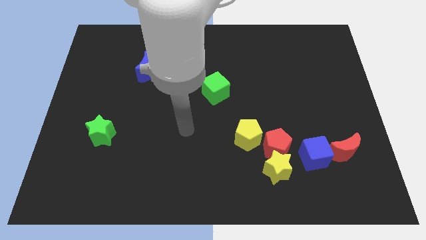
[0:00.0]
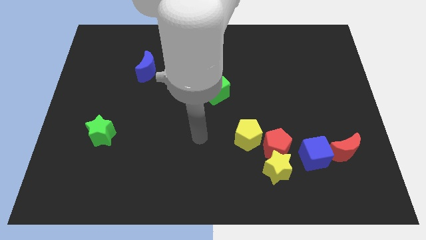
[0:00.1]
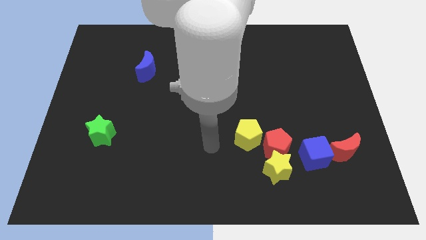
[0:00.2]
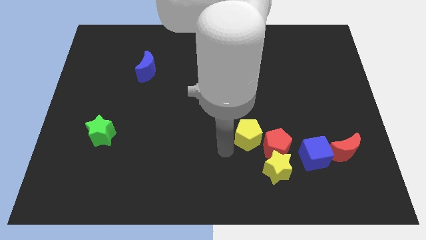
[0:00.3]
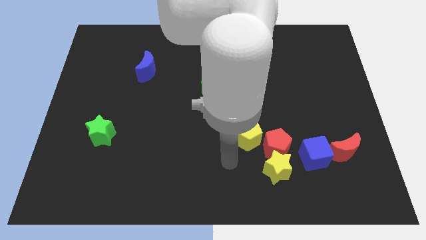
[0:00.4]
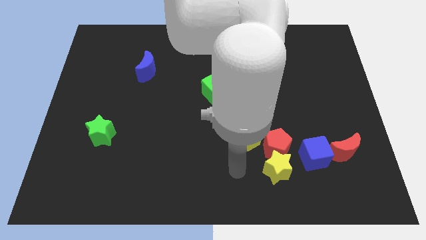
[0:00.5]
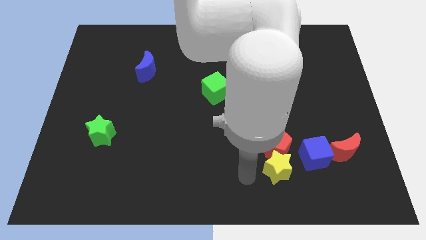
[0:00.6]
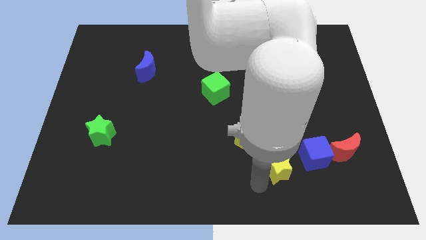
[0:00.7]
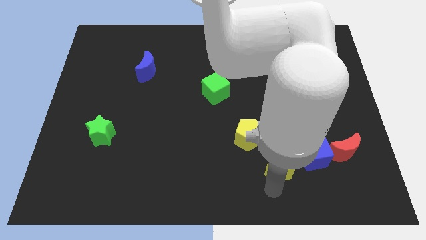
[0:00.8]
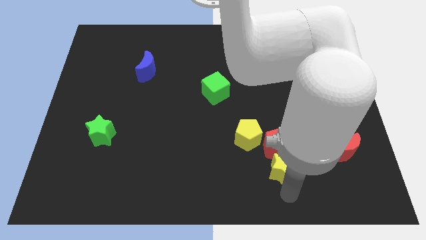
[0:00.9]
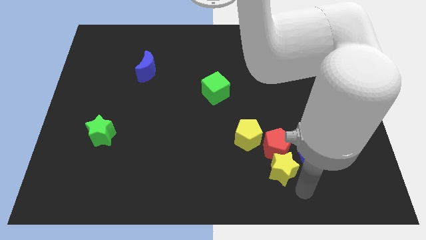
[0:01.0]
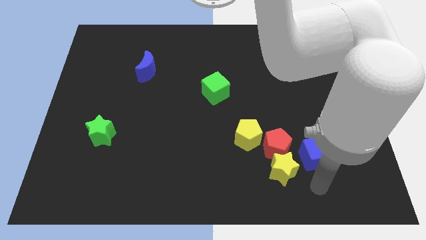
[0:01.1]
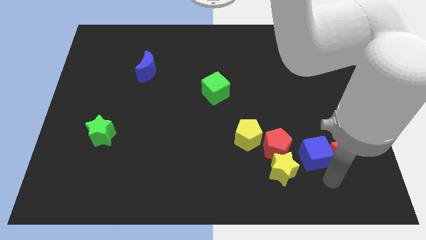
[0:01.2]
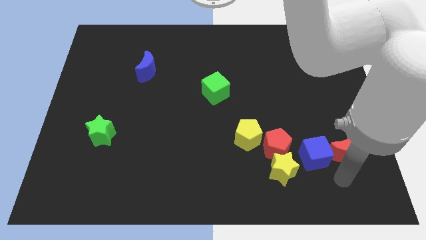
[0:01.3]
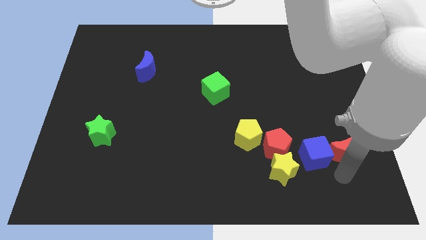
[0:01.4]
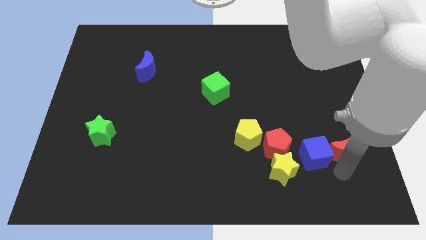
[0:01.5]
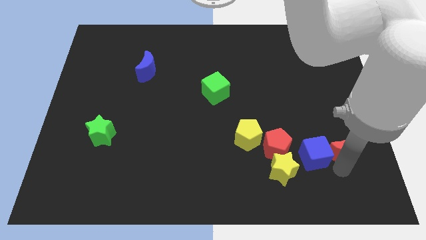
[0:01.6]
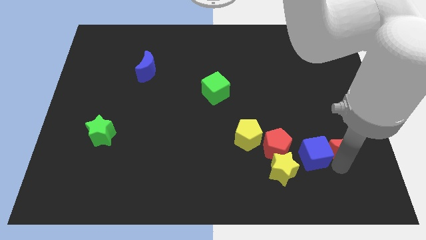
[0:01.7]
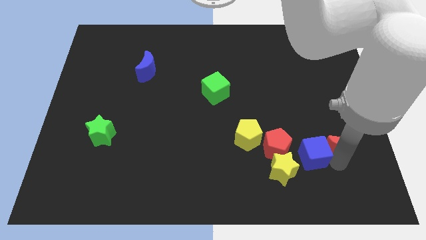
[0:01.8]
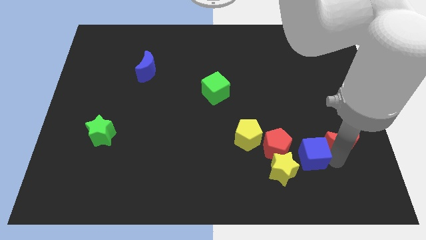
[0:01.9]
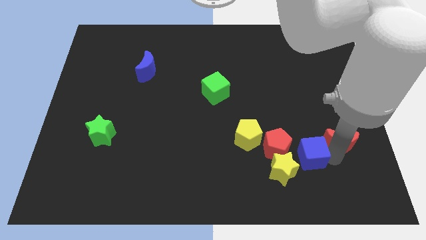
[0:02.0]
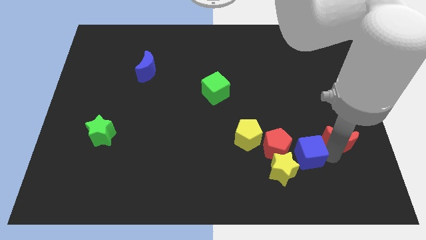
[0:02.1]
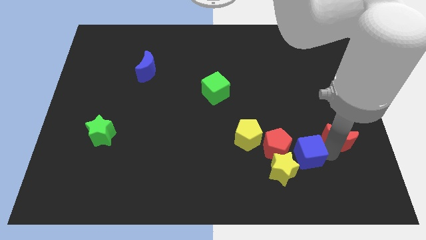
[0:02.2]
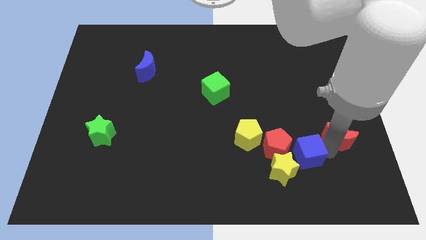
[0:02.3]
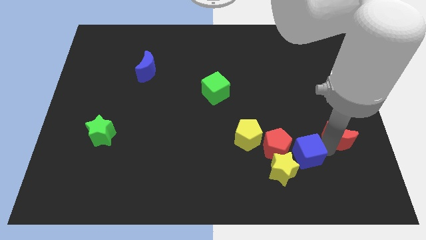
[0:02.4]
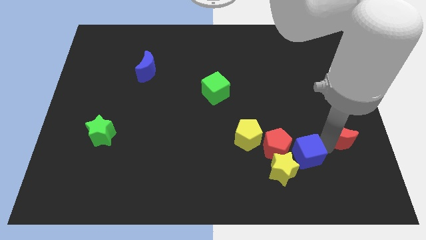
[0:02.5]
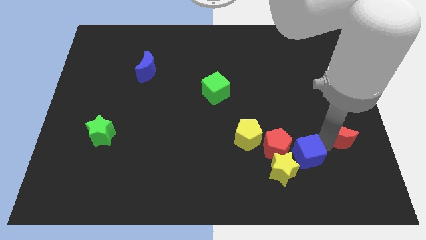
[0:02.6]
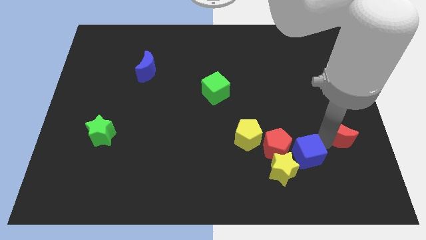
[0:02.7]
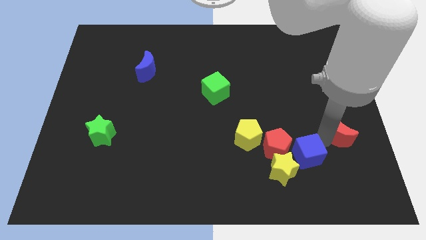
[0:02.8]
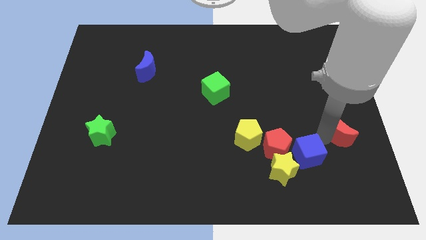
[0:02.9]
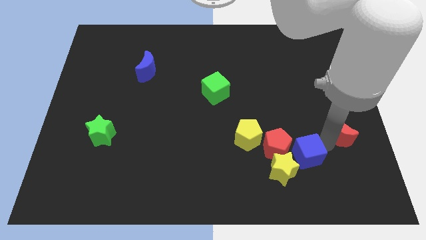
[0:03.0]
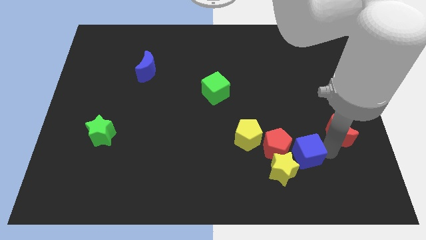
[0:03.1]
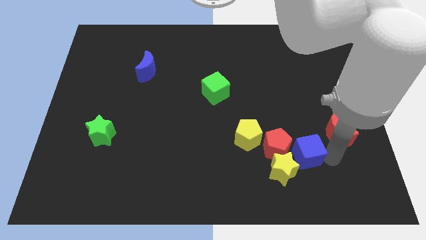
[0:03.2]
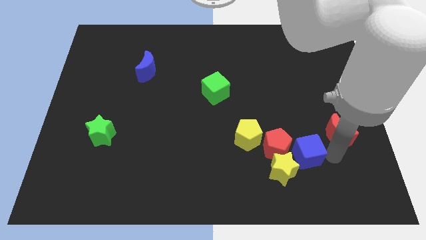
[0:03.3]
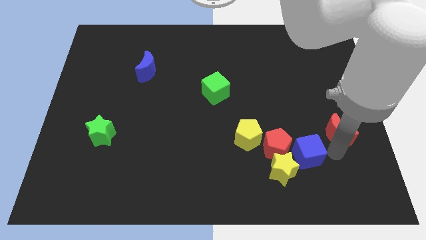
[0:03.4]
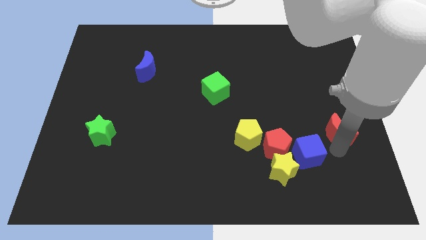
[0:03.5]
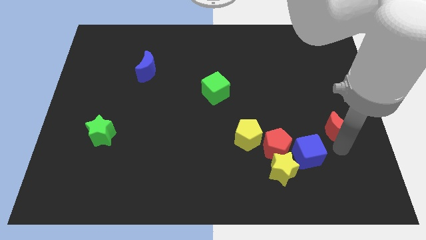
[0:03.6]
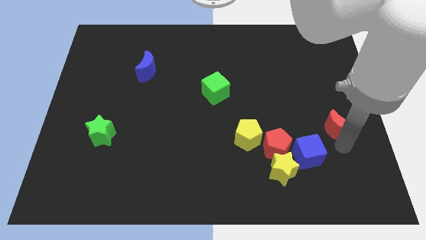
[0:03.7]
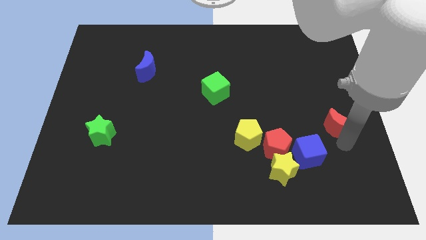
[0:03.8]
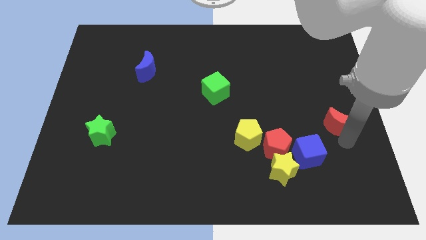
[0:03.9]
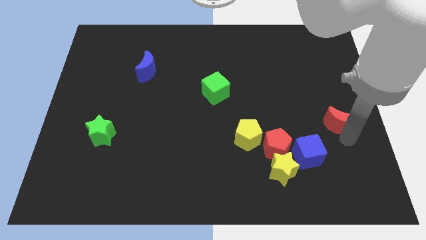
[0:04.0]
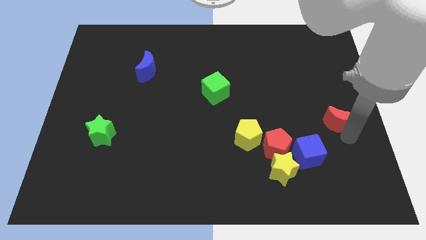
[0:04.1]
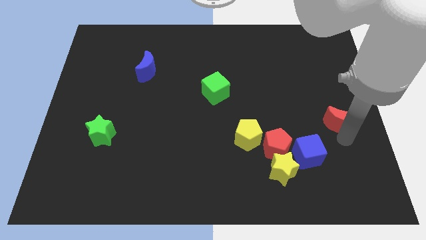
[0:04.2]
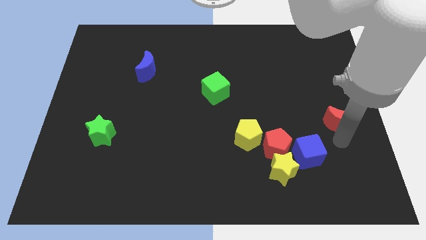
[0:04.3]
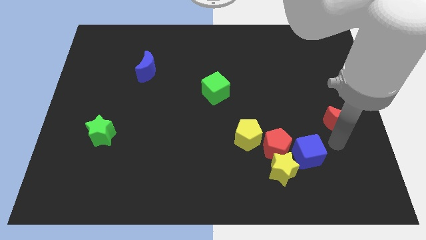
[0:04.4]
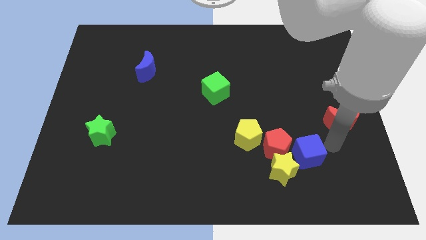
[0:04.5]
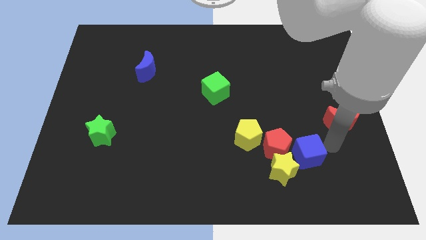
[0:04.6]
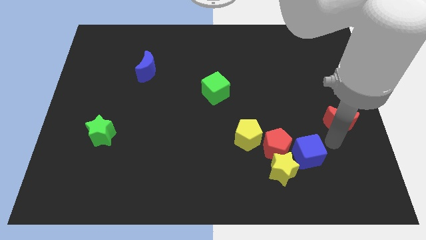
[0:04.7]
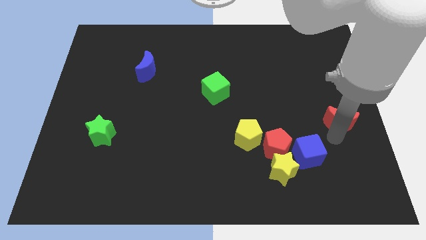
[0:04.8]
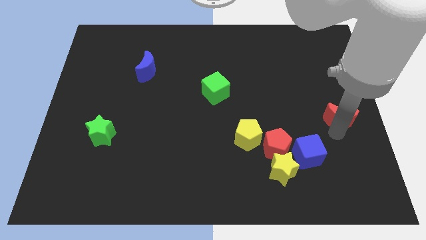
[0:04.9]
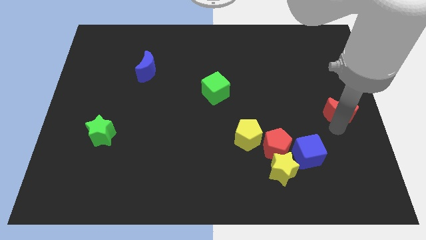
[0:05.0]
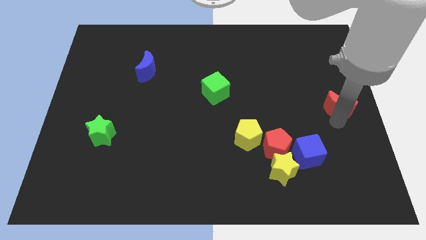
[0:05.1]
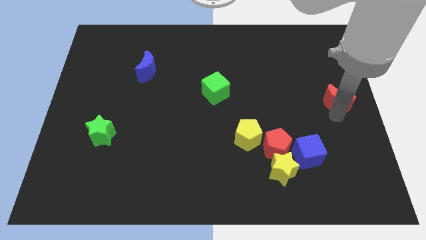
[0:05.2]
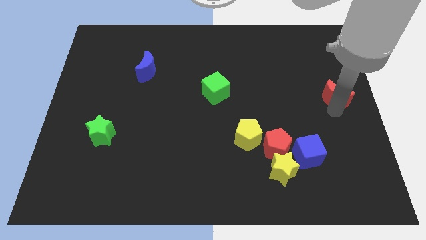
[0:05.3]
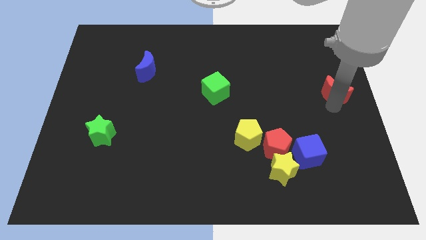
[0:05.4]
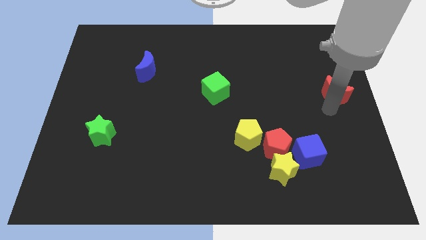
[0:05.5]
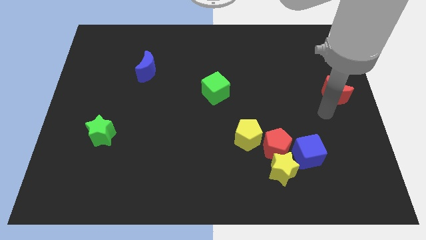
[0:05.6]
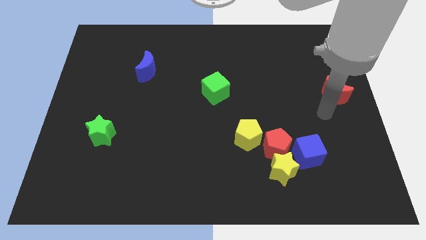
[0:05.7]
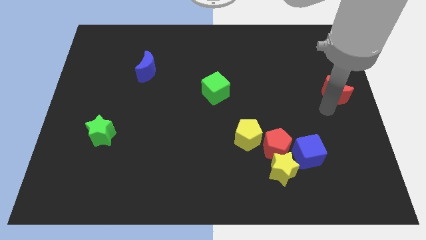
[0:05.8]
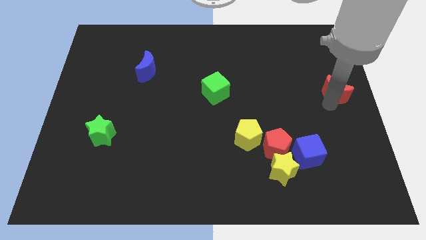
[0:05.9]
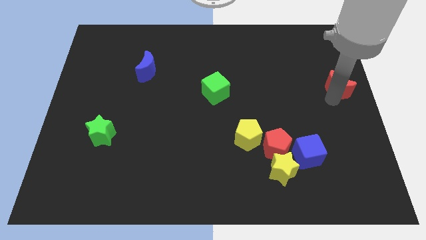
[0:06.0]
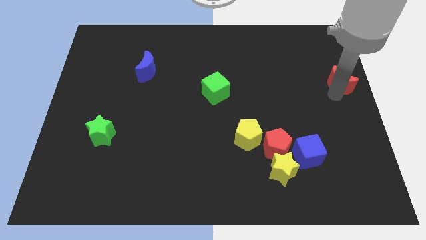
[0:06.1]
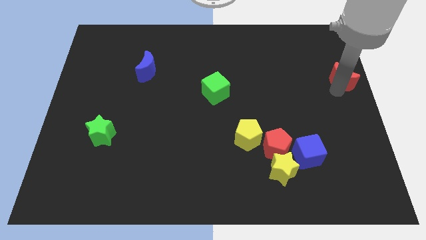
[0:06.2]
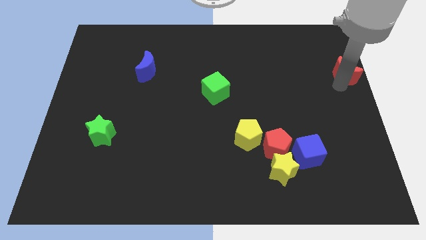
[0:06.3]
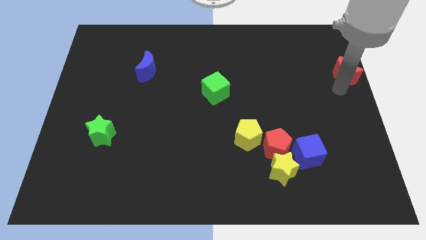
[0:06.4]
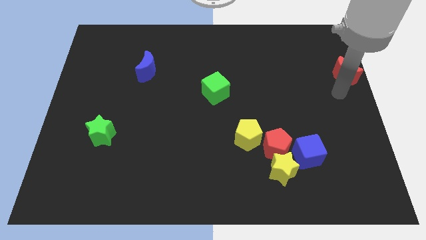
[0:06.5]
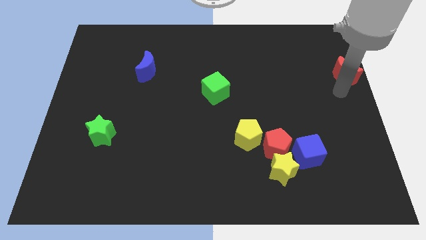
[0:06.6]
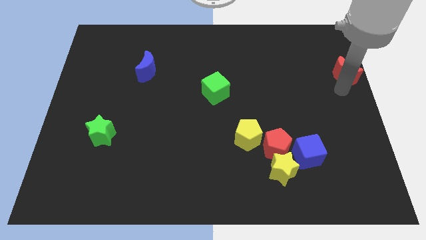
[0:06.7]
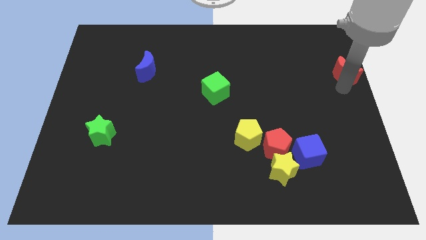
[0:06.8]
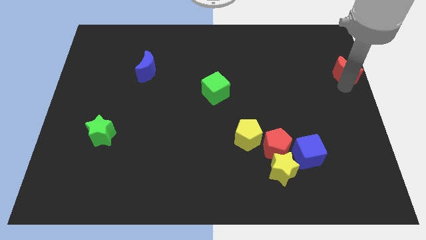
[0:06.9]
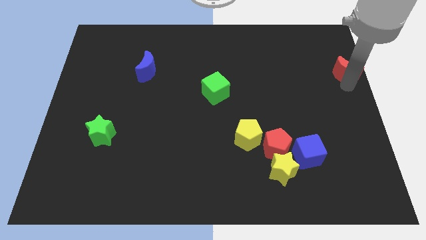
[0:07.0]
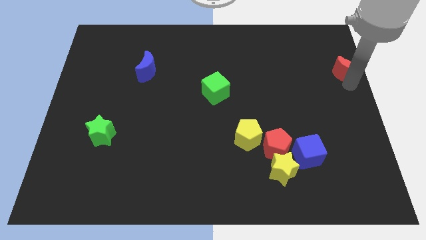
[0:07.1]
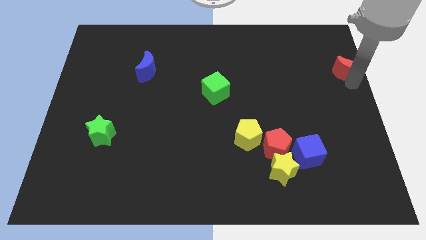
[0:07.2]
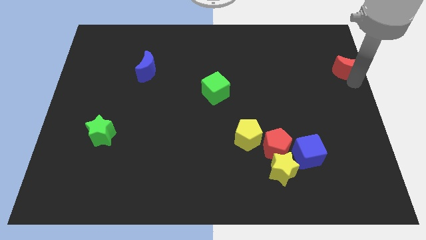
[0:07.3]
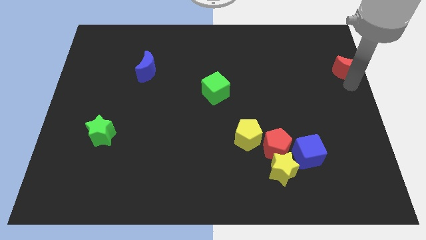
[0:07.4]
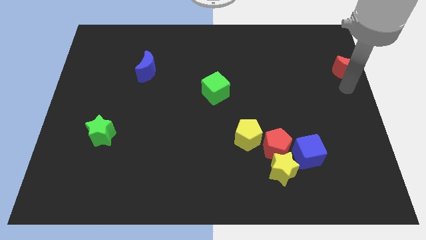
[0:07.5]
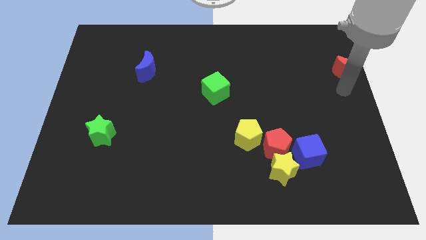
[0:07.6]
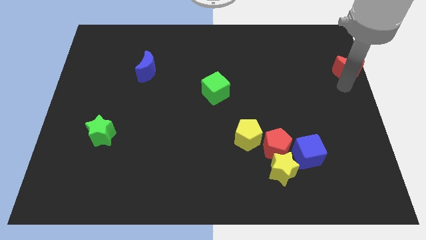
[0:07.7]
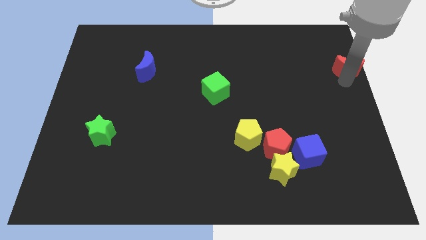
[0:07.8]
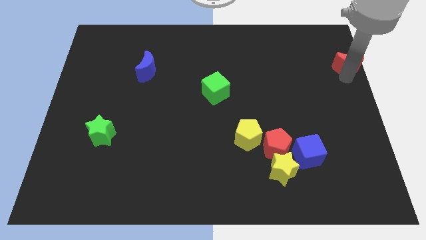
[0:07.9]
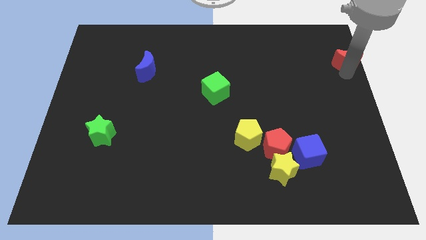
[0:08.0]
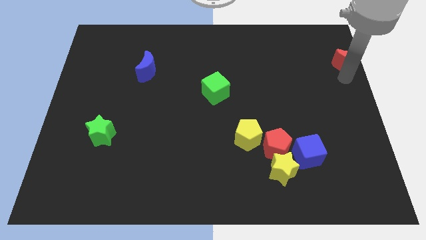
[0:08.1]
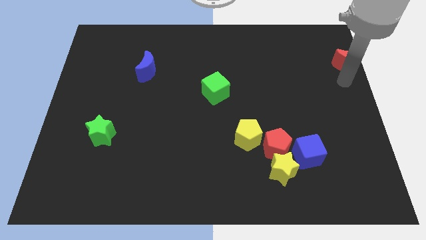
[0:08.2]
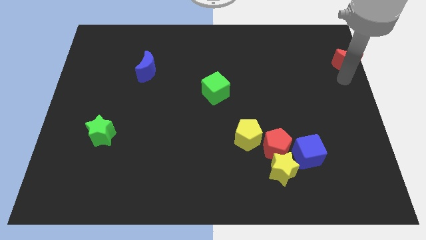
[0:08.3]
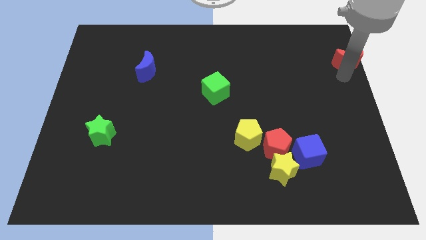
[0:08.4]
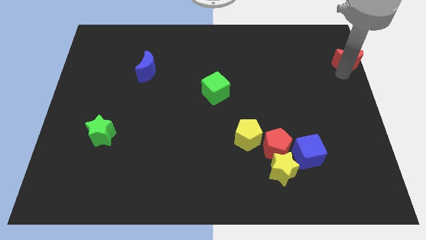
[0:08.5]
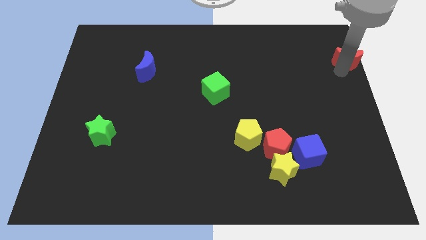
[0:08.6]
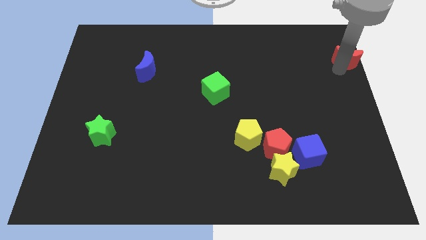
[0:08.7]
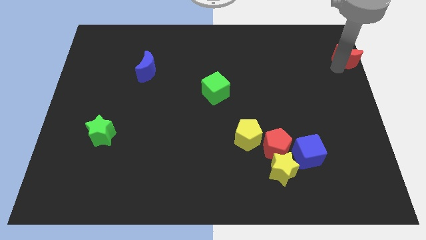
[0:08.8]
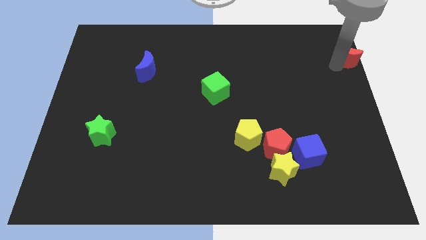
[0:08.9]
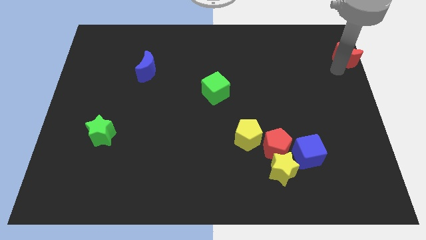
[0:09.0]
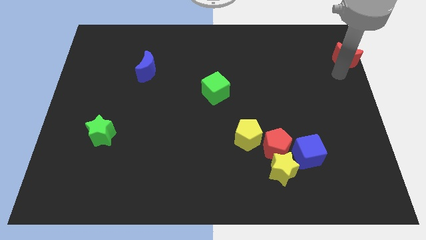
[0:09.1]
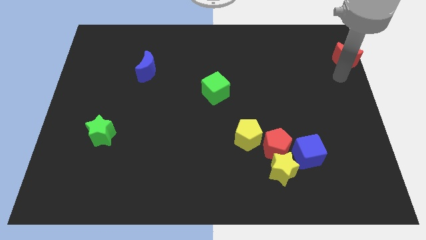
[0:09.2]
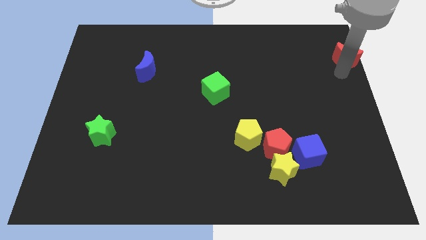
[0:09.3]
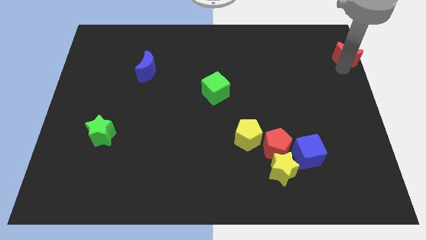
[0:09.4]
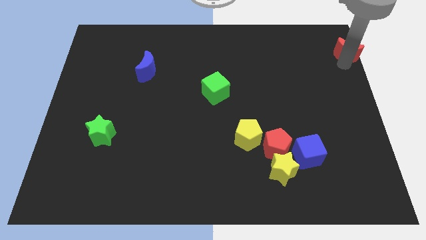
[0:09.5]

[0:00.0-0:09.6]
slide the red moon to the top right corner
